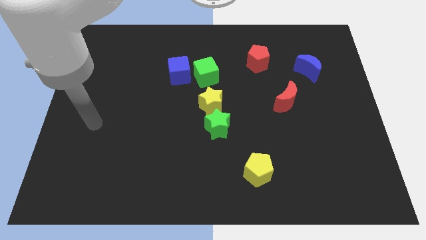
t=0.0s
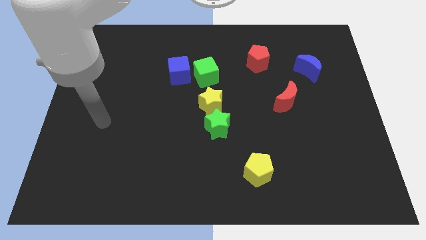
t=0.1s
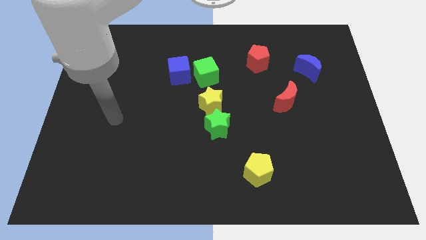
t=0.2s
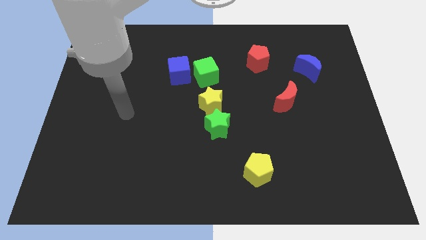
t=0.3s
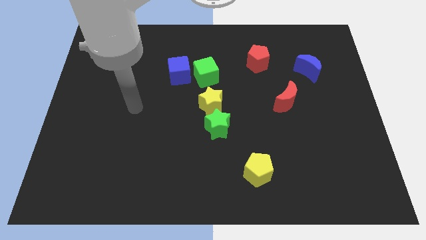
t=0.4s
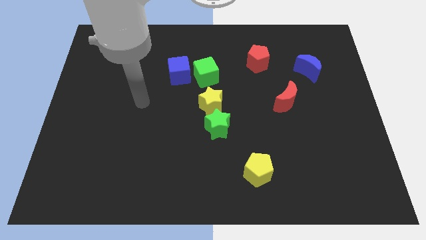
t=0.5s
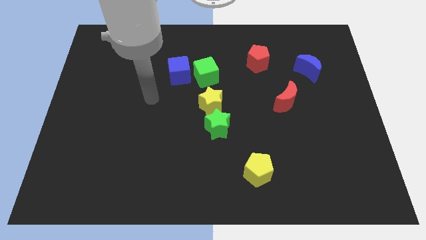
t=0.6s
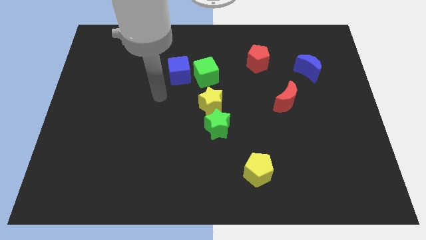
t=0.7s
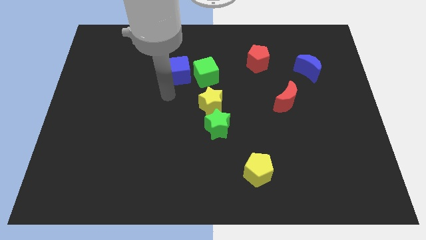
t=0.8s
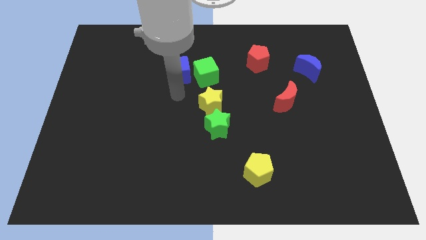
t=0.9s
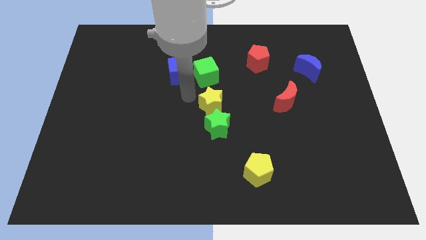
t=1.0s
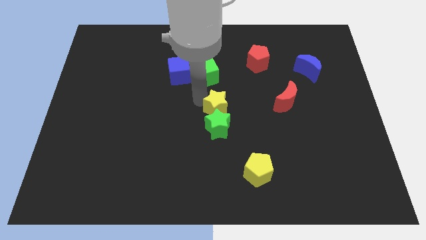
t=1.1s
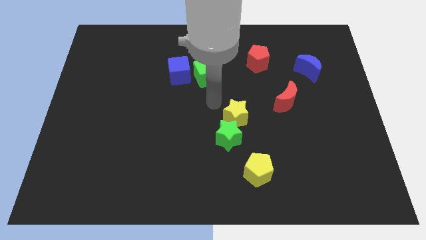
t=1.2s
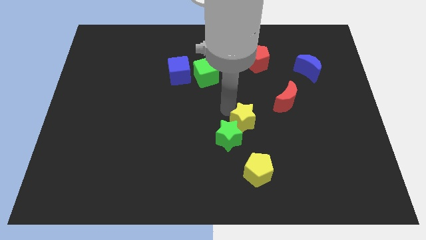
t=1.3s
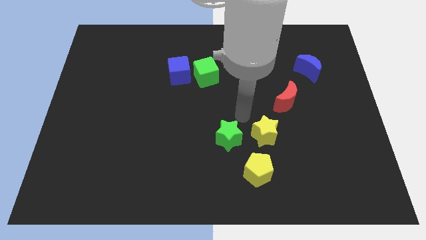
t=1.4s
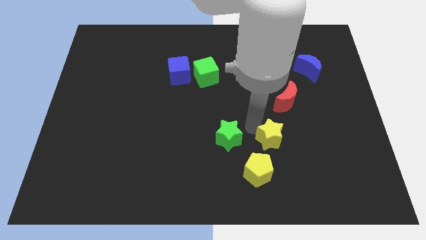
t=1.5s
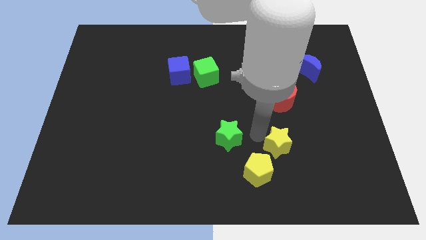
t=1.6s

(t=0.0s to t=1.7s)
separate the green star from the yellow star

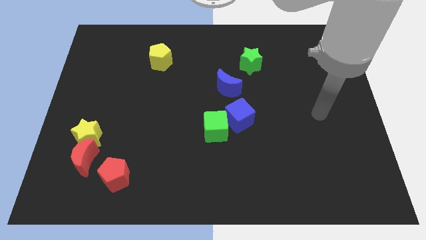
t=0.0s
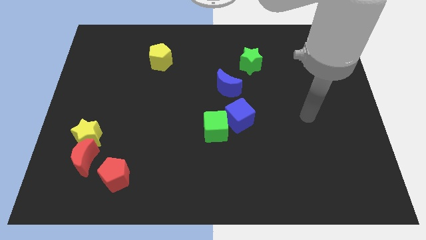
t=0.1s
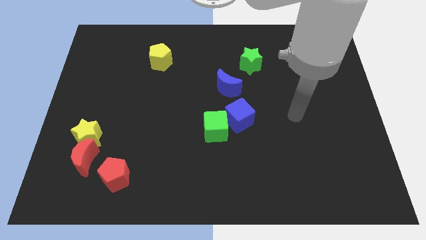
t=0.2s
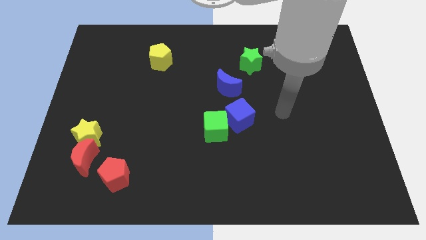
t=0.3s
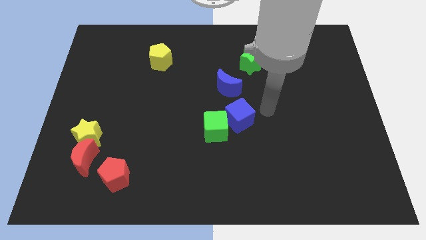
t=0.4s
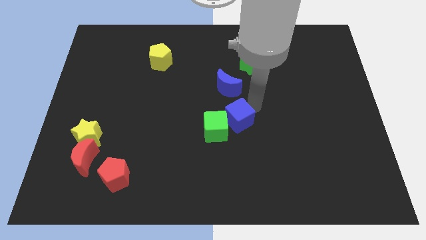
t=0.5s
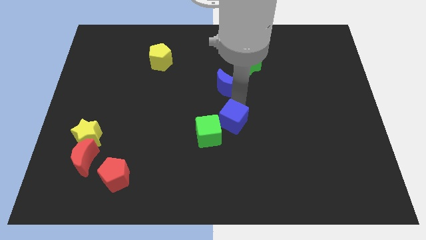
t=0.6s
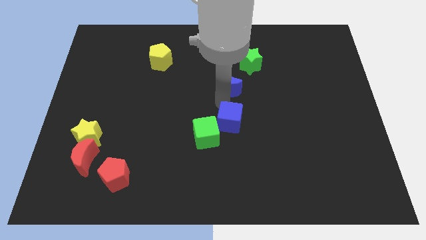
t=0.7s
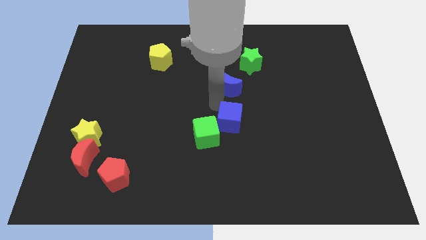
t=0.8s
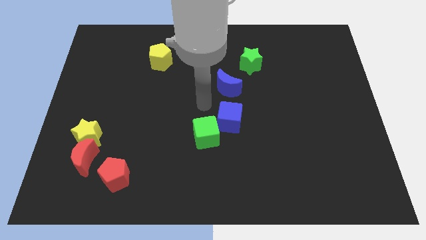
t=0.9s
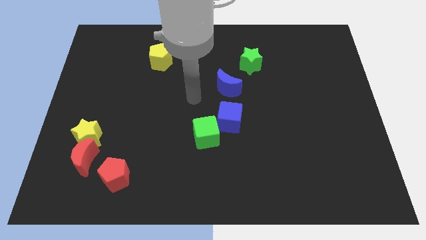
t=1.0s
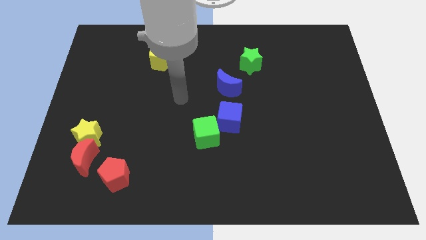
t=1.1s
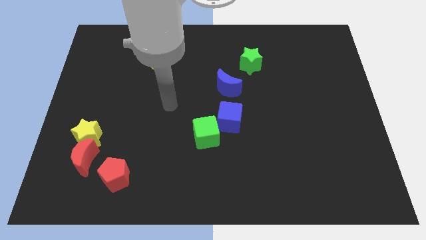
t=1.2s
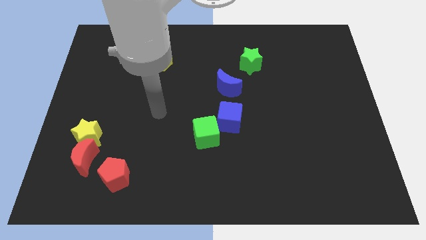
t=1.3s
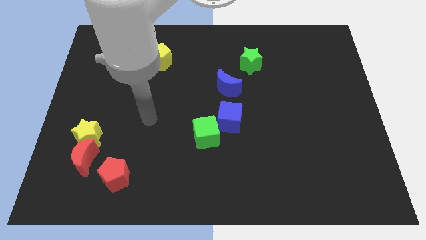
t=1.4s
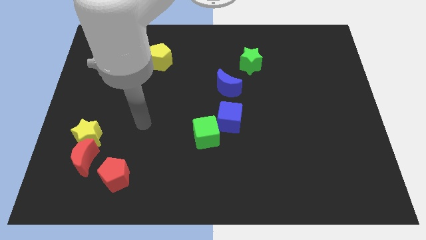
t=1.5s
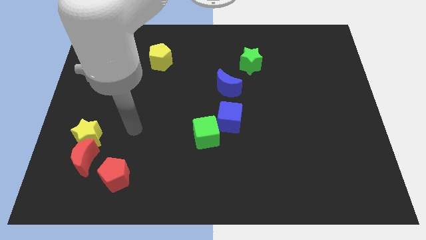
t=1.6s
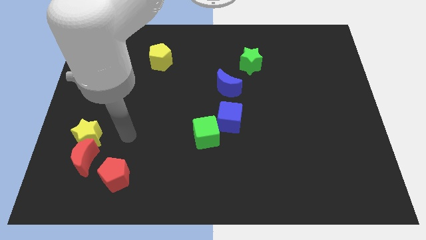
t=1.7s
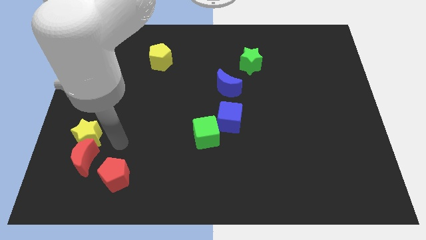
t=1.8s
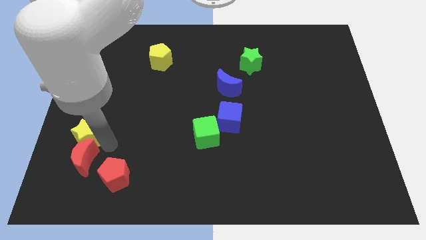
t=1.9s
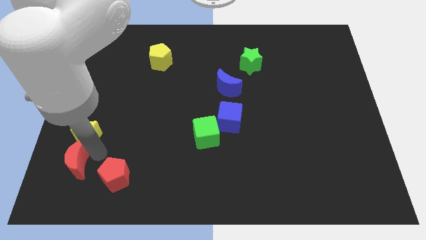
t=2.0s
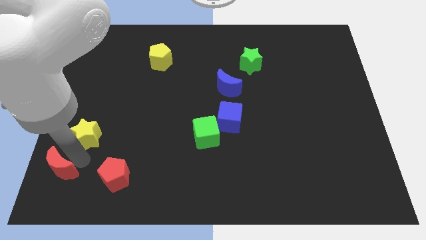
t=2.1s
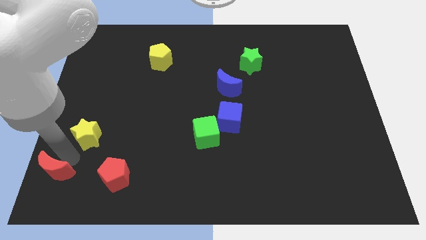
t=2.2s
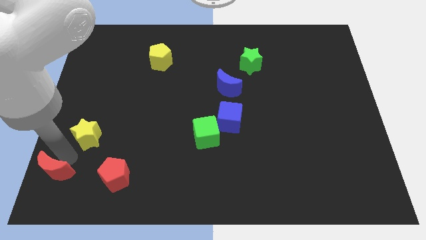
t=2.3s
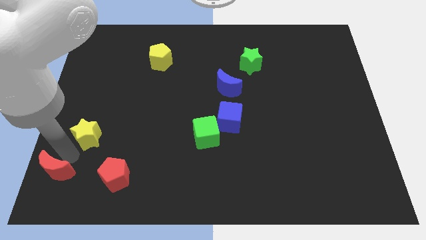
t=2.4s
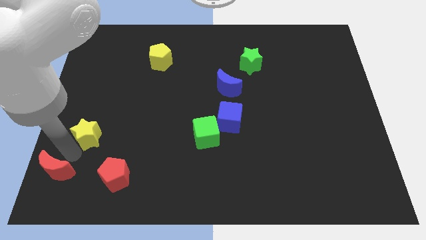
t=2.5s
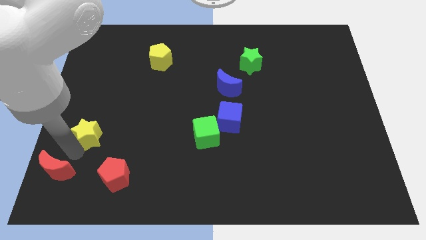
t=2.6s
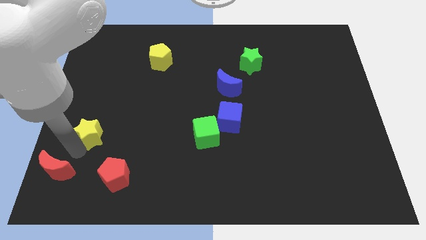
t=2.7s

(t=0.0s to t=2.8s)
move the yellow star away from the red moon

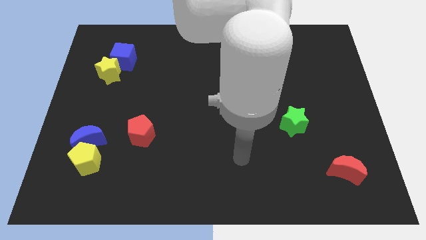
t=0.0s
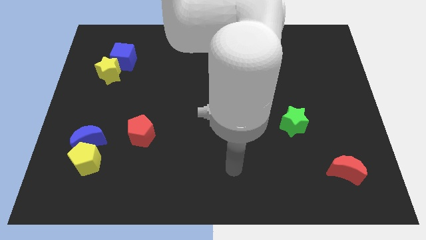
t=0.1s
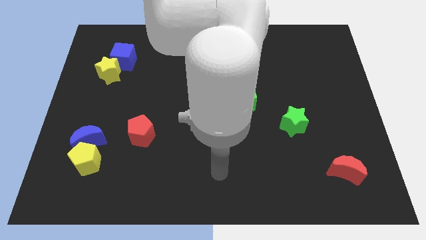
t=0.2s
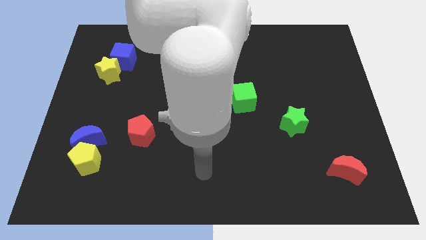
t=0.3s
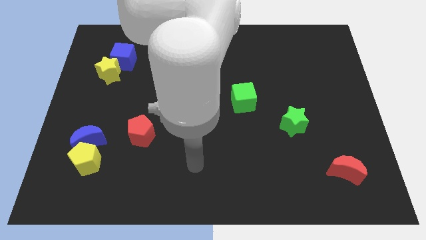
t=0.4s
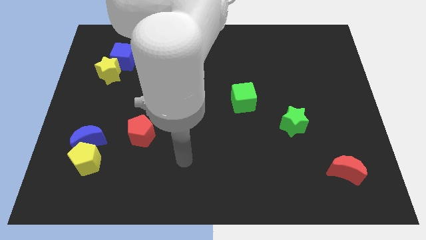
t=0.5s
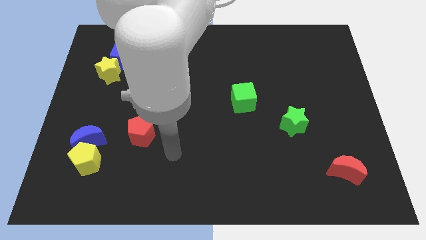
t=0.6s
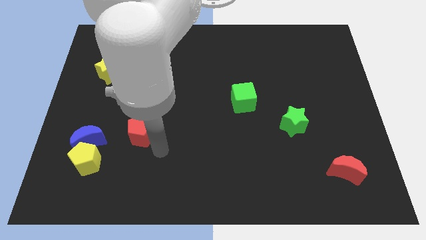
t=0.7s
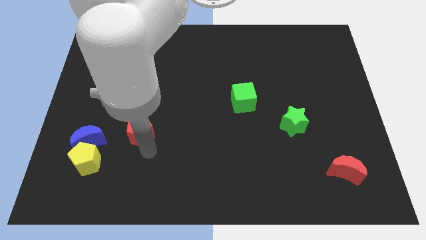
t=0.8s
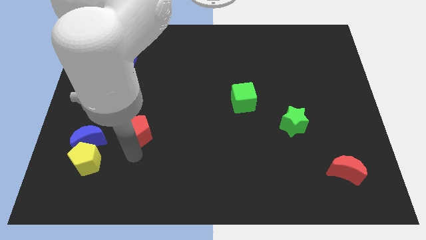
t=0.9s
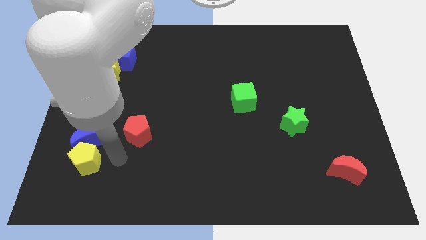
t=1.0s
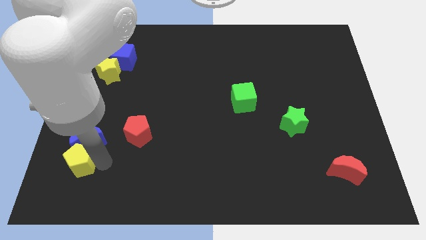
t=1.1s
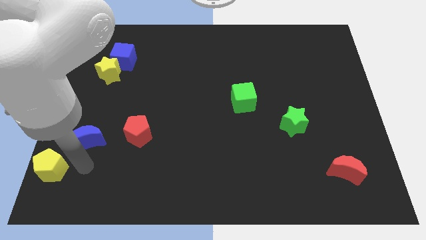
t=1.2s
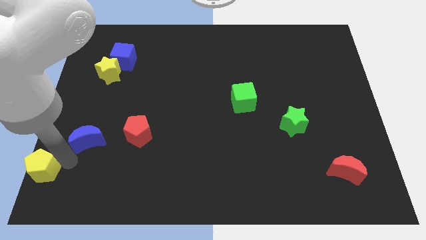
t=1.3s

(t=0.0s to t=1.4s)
move the blue moon away from the yellow pentagon

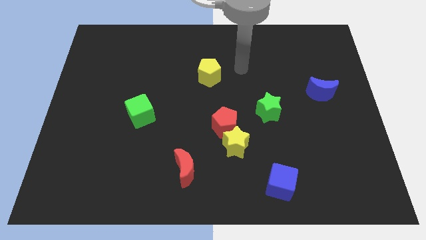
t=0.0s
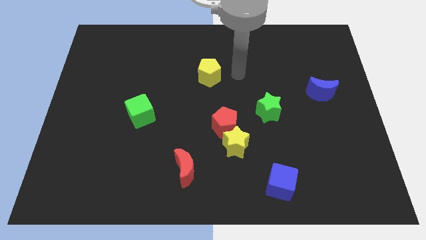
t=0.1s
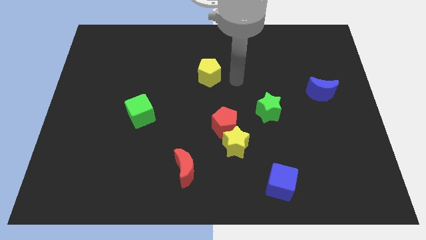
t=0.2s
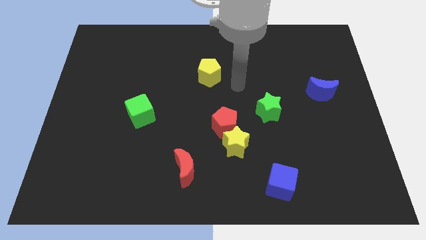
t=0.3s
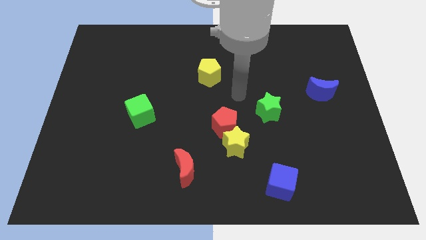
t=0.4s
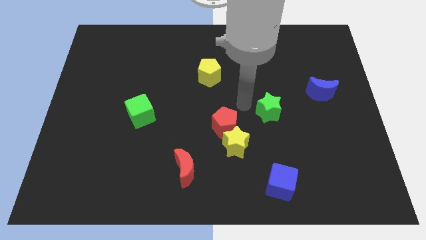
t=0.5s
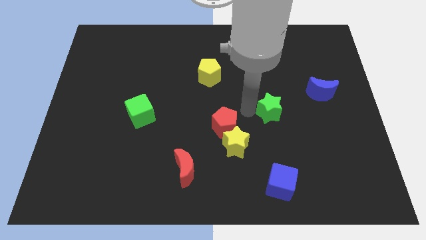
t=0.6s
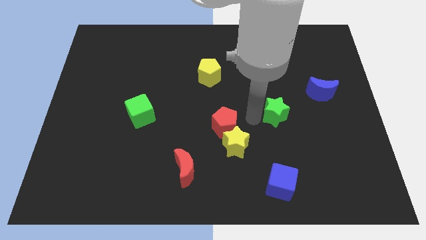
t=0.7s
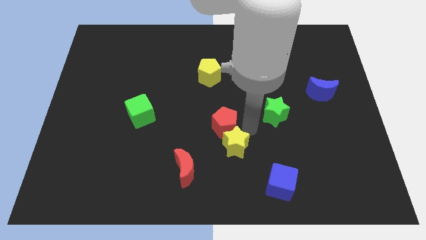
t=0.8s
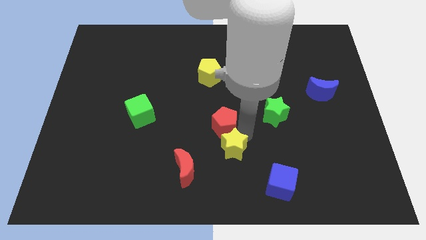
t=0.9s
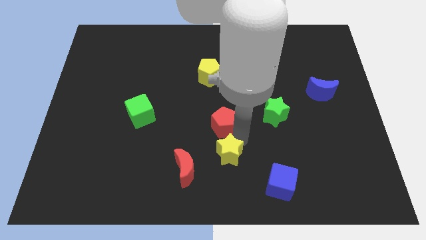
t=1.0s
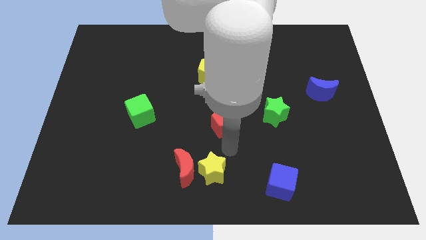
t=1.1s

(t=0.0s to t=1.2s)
pull the red pentagon apart from the yellow star

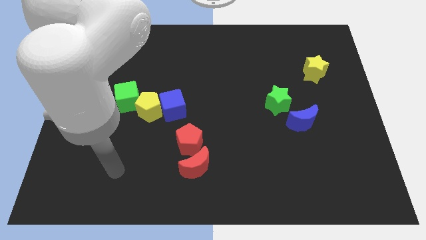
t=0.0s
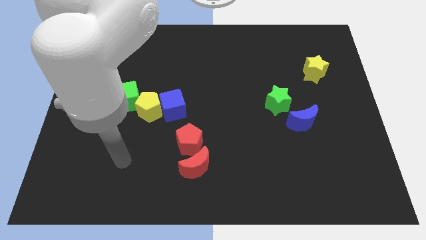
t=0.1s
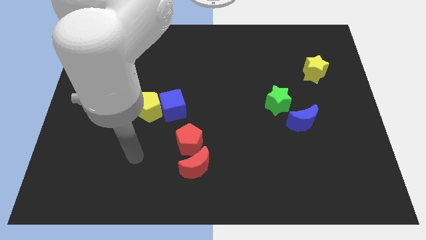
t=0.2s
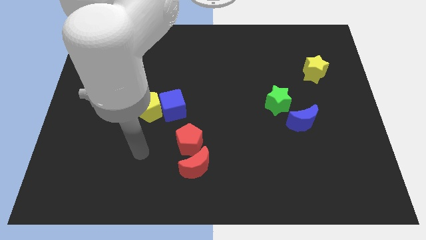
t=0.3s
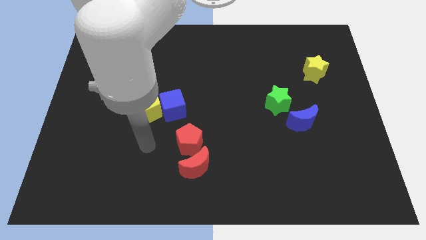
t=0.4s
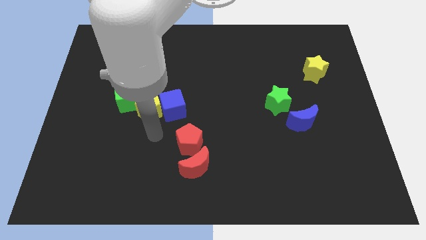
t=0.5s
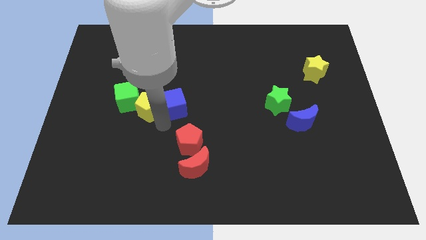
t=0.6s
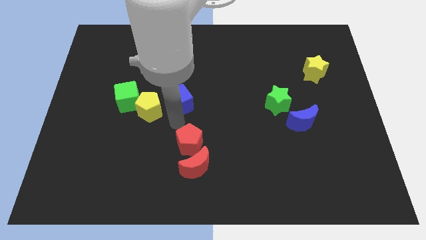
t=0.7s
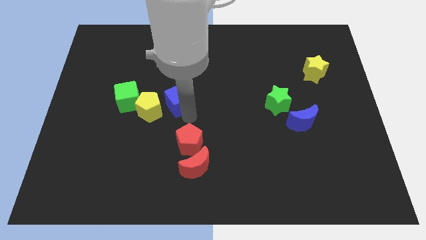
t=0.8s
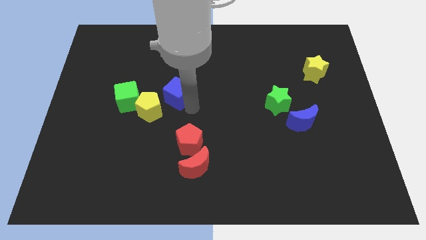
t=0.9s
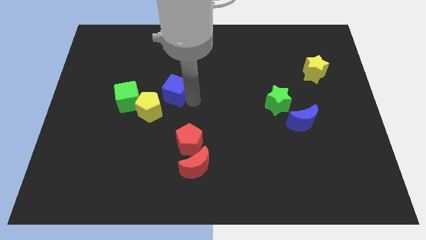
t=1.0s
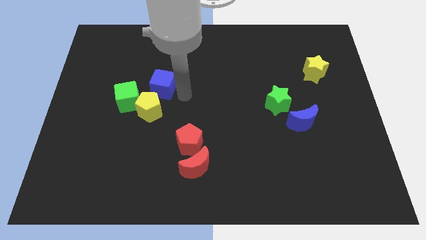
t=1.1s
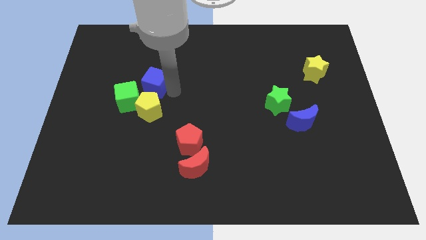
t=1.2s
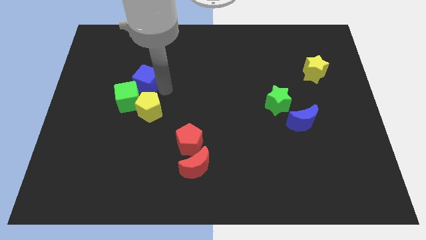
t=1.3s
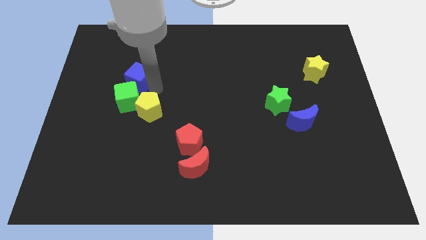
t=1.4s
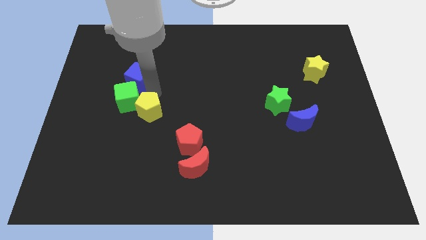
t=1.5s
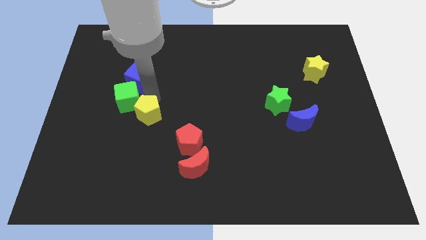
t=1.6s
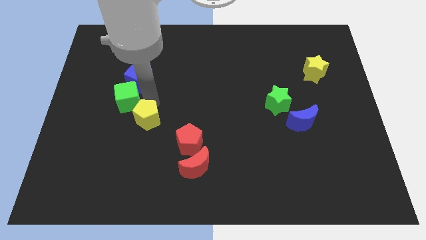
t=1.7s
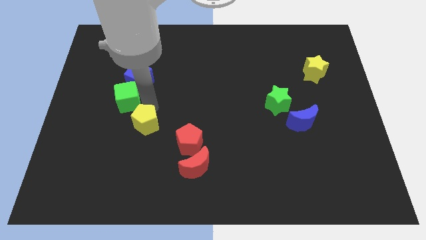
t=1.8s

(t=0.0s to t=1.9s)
separate the yellow pentagon from the blue cube and green cube

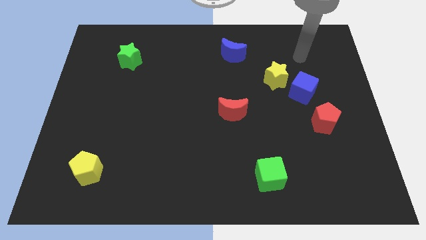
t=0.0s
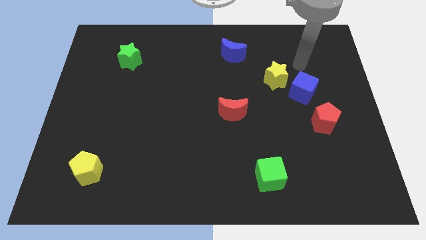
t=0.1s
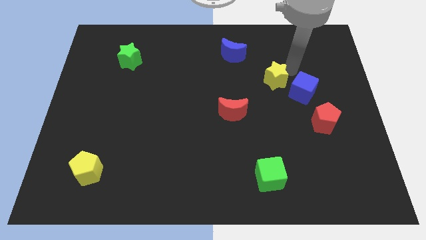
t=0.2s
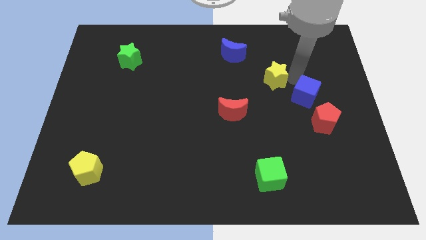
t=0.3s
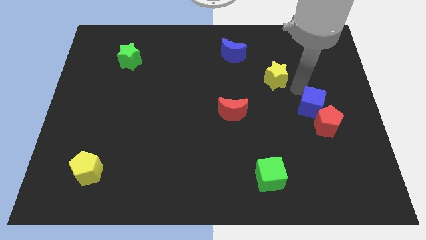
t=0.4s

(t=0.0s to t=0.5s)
move the yellow star away from the blue cube
